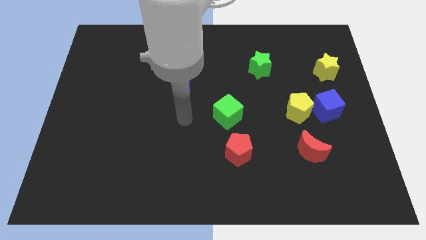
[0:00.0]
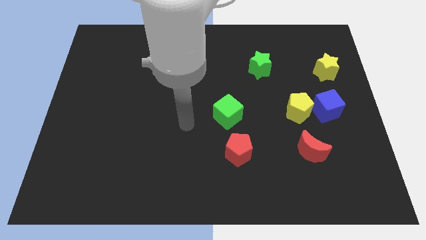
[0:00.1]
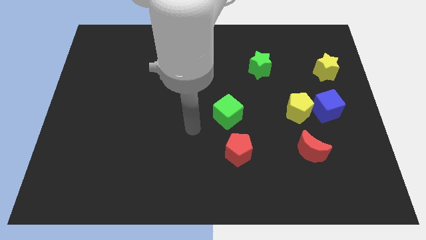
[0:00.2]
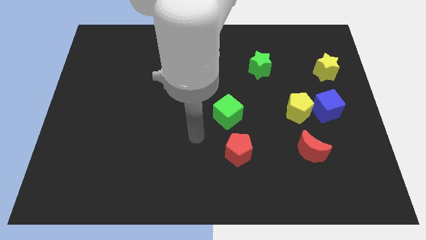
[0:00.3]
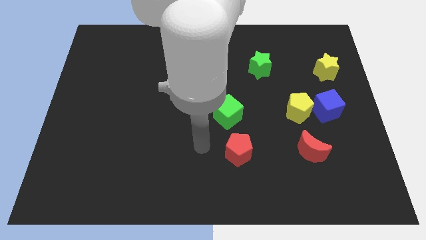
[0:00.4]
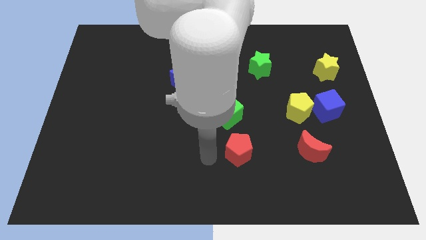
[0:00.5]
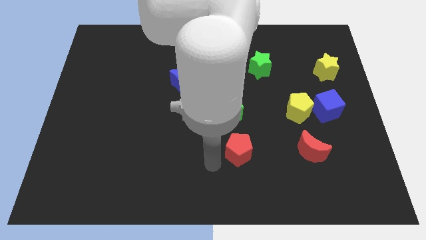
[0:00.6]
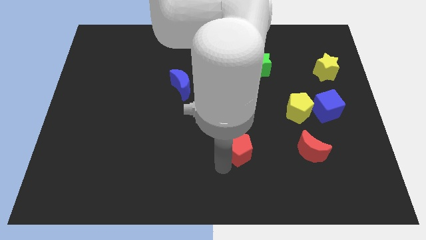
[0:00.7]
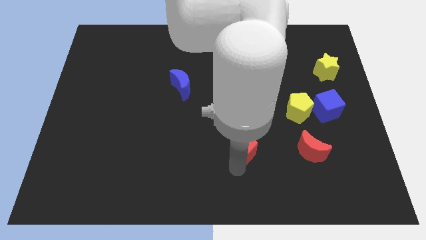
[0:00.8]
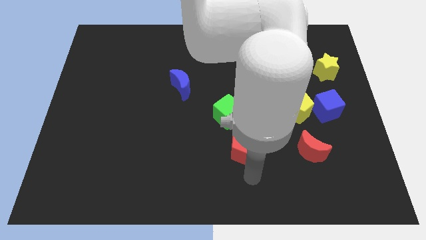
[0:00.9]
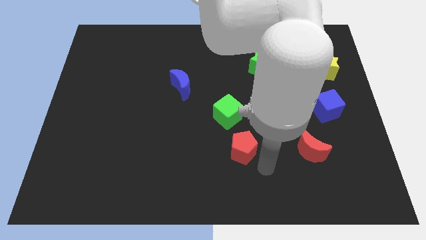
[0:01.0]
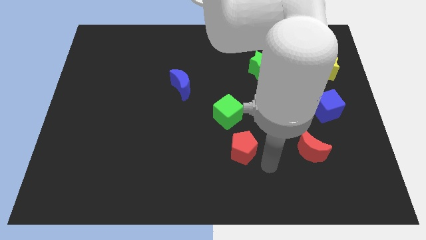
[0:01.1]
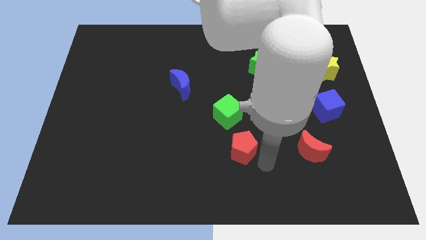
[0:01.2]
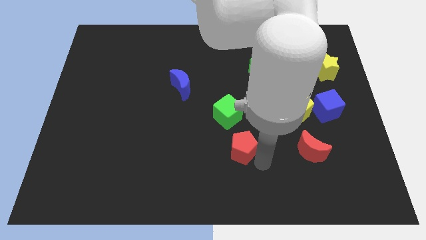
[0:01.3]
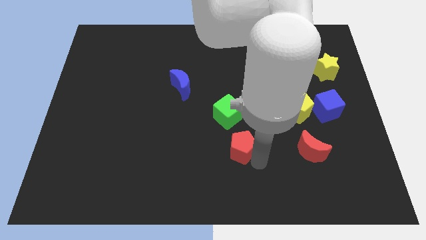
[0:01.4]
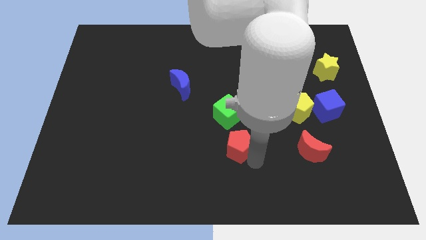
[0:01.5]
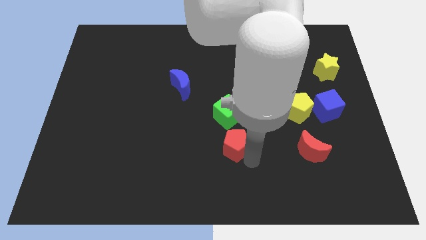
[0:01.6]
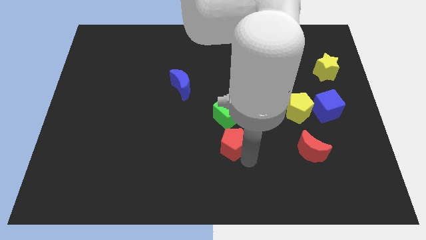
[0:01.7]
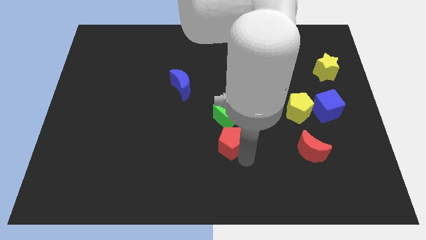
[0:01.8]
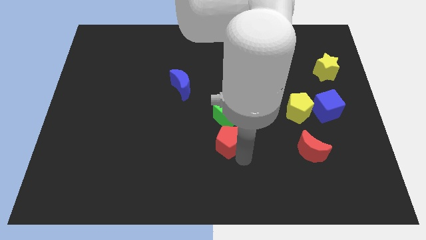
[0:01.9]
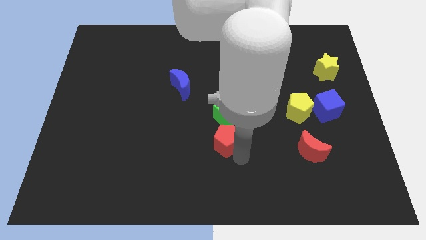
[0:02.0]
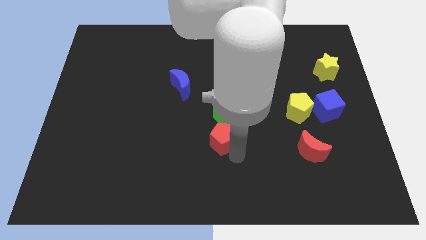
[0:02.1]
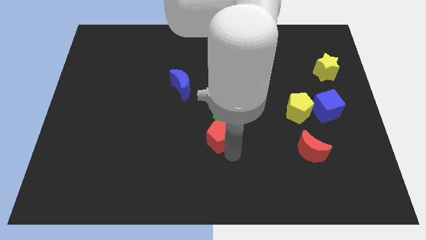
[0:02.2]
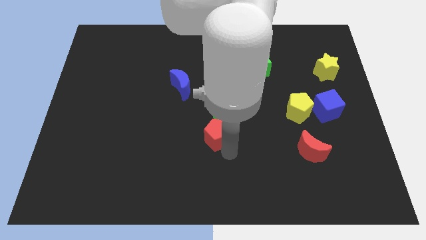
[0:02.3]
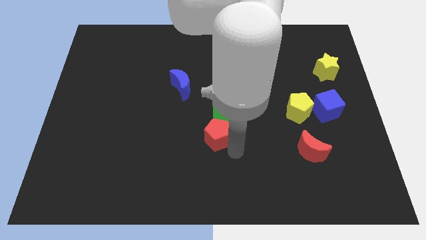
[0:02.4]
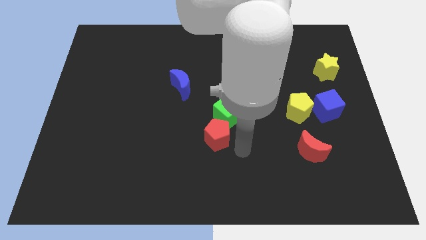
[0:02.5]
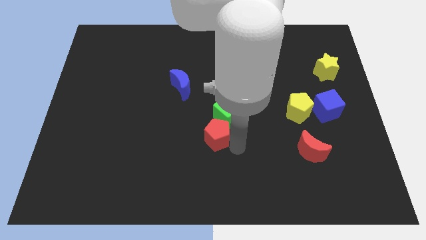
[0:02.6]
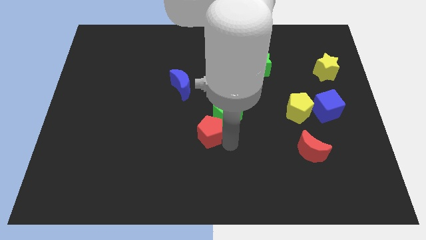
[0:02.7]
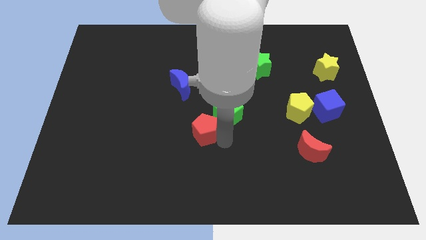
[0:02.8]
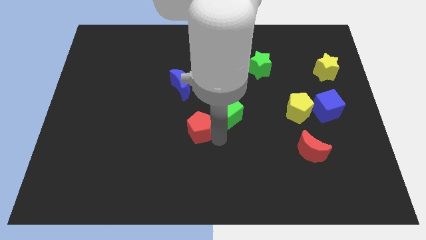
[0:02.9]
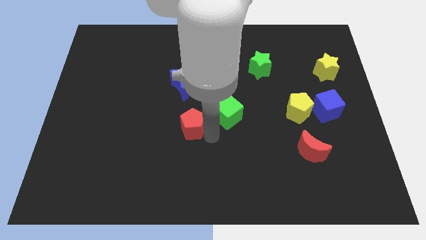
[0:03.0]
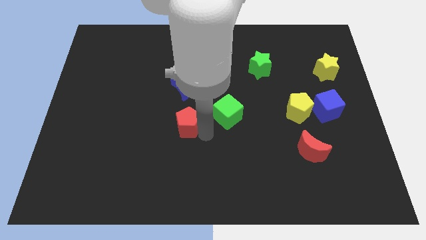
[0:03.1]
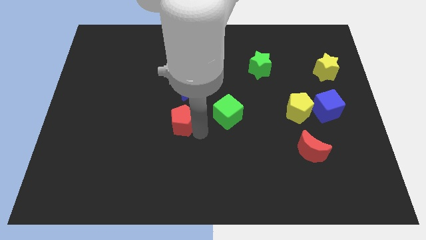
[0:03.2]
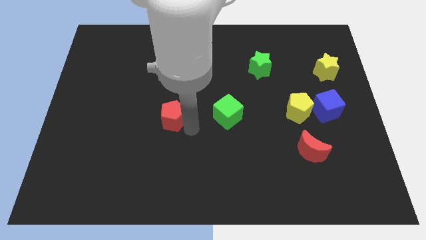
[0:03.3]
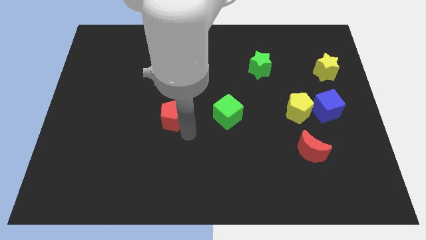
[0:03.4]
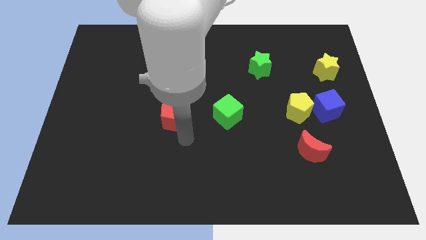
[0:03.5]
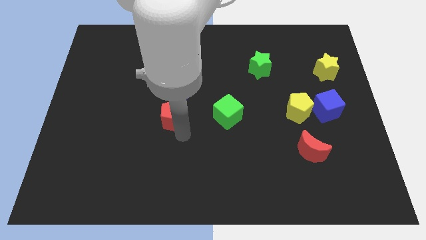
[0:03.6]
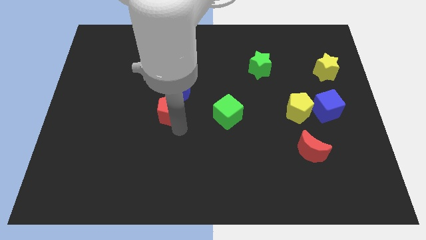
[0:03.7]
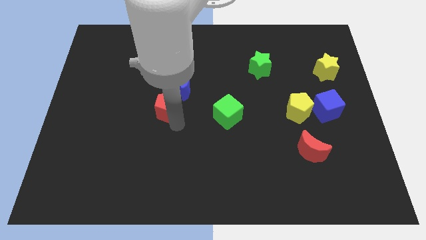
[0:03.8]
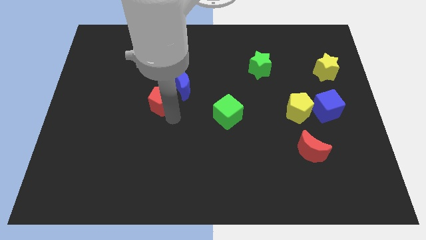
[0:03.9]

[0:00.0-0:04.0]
slide the red pentagon up and left

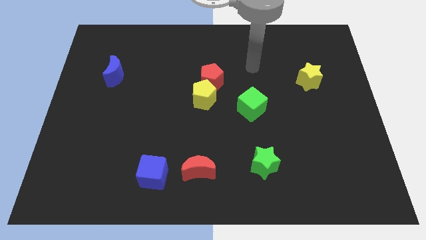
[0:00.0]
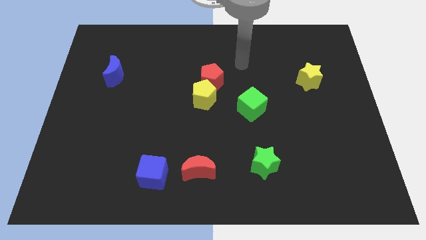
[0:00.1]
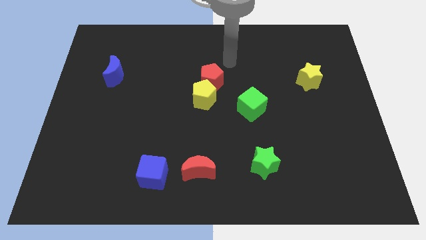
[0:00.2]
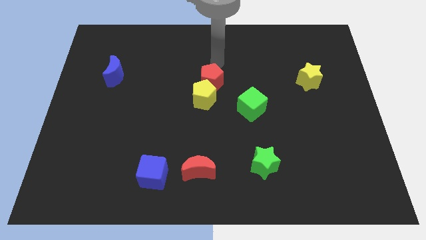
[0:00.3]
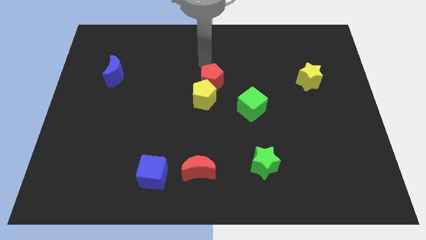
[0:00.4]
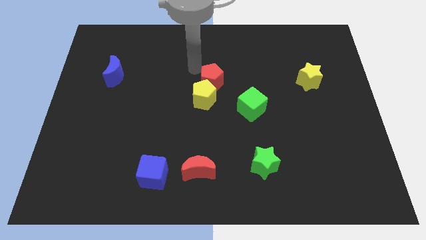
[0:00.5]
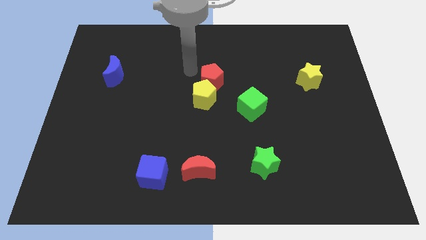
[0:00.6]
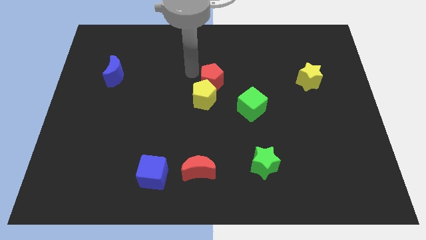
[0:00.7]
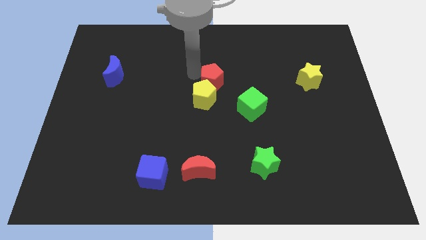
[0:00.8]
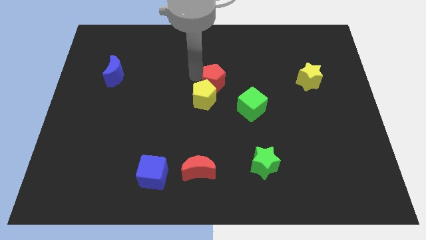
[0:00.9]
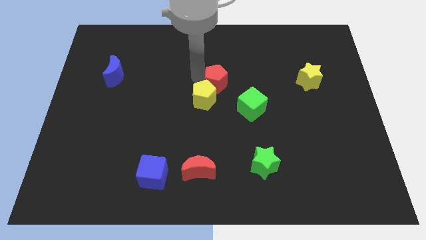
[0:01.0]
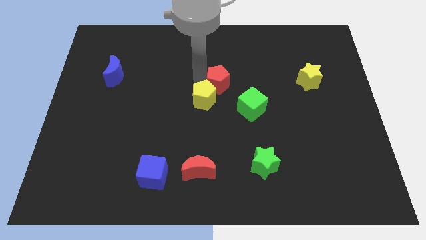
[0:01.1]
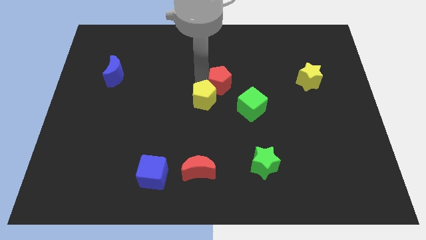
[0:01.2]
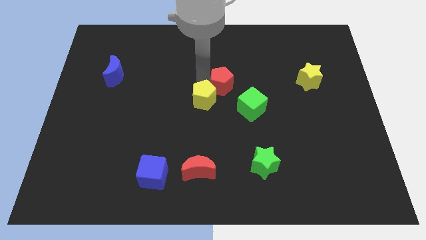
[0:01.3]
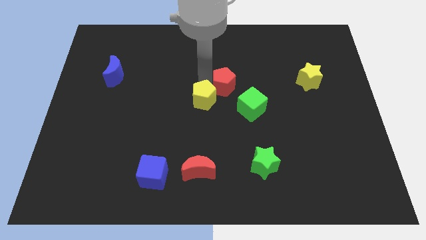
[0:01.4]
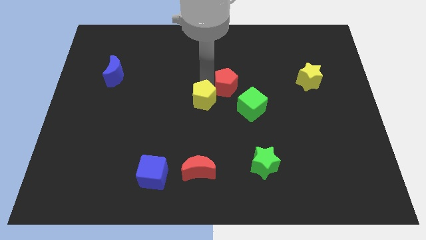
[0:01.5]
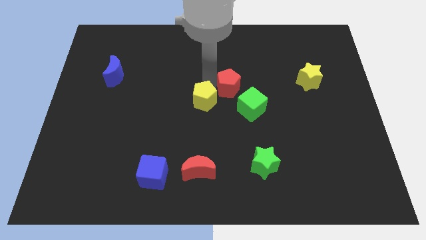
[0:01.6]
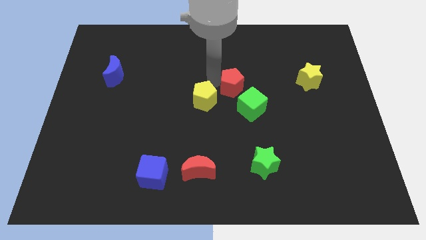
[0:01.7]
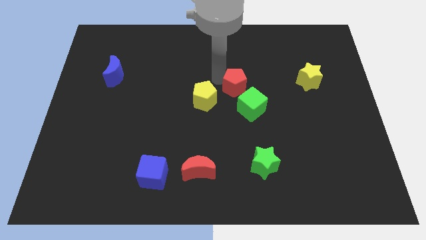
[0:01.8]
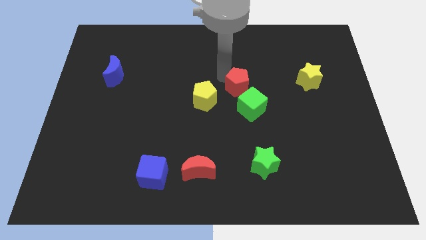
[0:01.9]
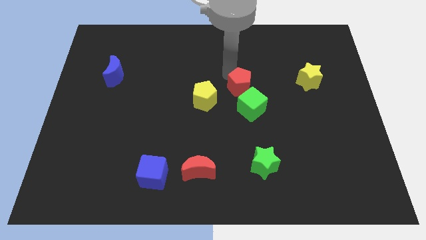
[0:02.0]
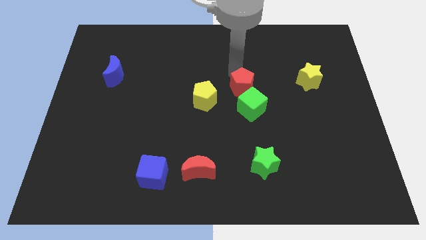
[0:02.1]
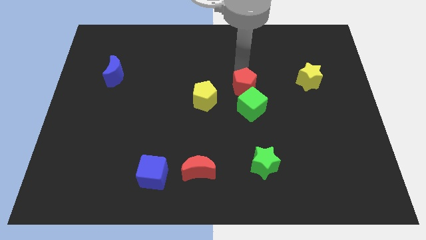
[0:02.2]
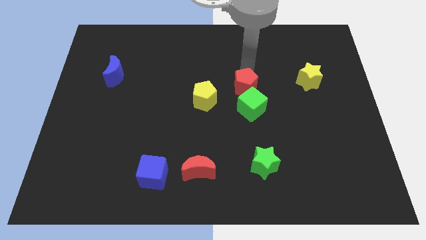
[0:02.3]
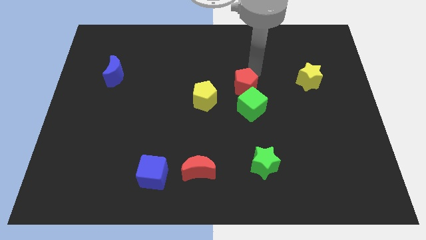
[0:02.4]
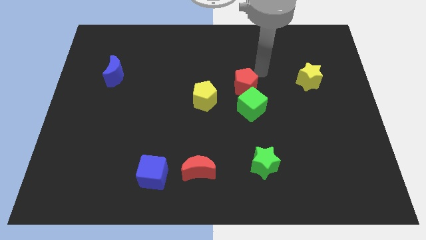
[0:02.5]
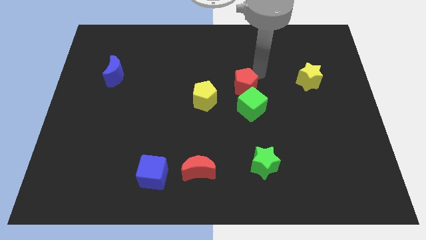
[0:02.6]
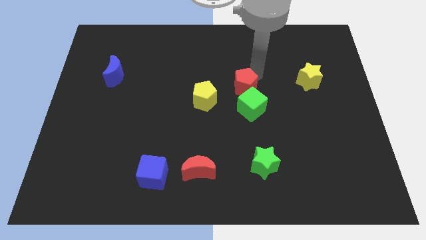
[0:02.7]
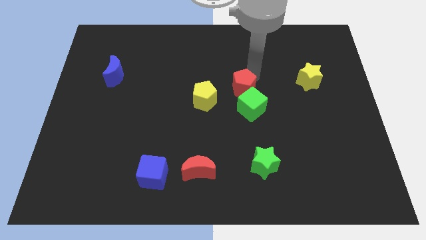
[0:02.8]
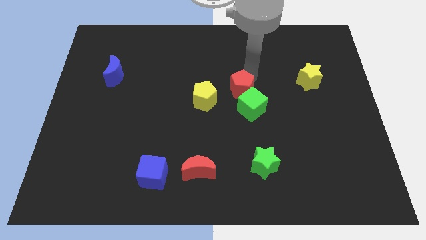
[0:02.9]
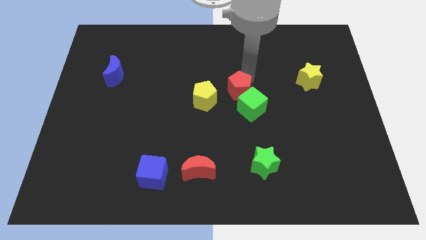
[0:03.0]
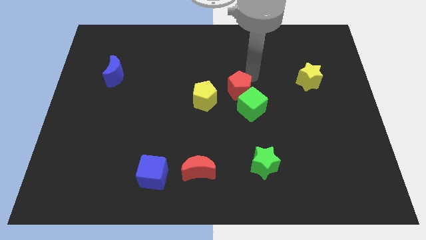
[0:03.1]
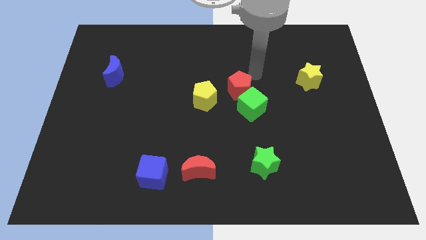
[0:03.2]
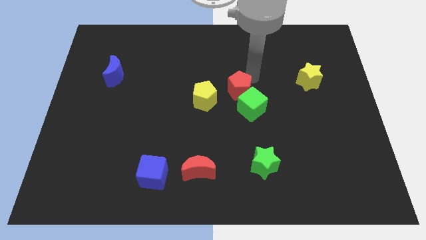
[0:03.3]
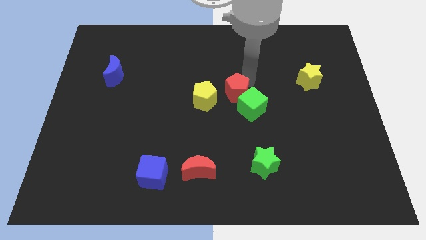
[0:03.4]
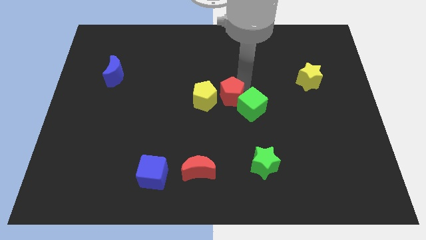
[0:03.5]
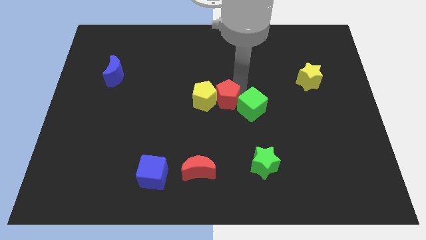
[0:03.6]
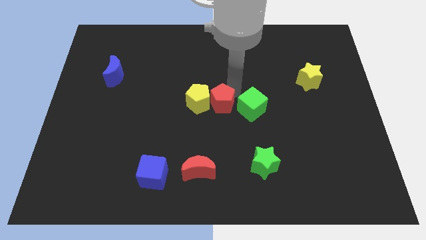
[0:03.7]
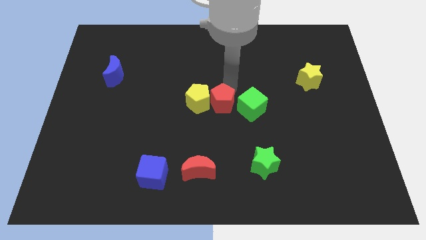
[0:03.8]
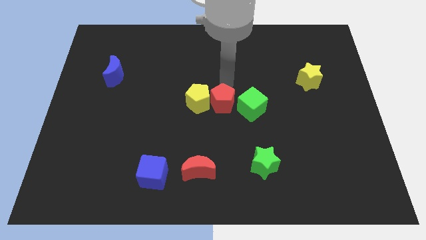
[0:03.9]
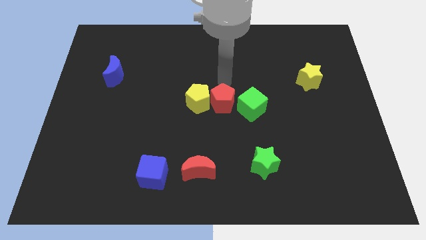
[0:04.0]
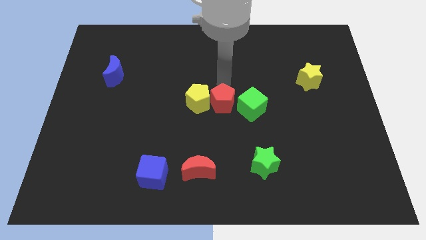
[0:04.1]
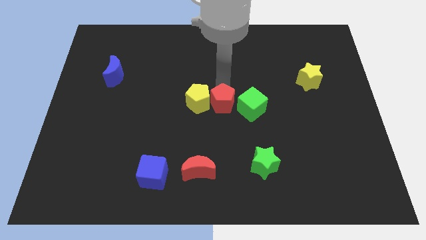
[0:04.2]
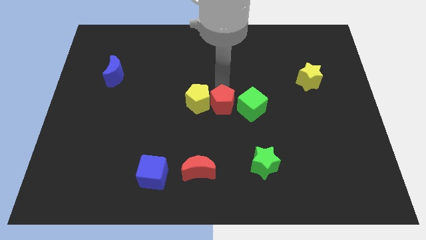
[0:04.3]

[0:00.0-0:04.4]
slightly slide the red pentagon downwards
